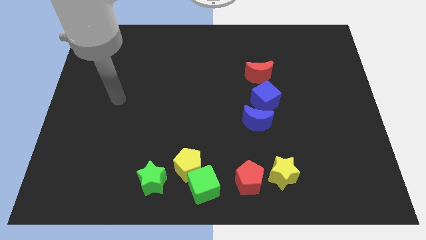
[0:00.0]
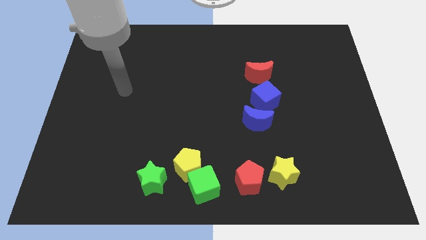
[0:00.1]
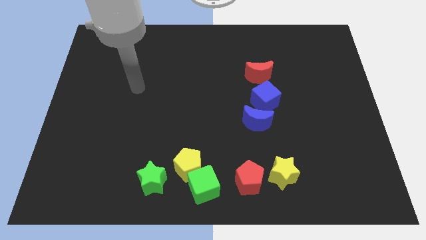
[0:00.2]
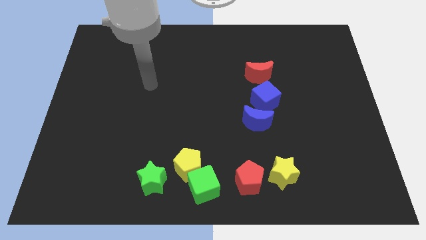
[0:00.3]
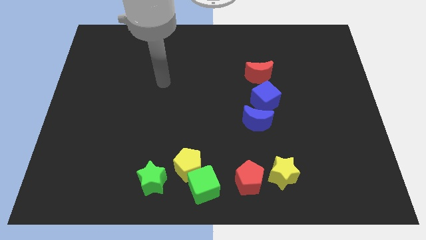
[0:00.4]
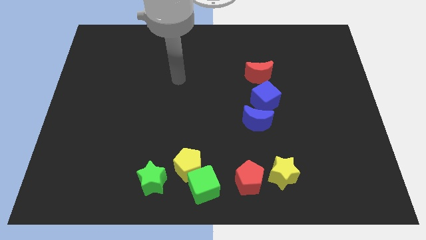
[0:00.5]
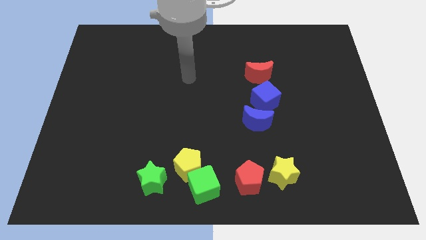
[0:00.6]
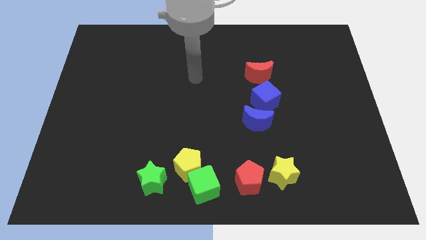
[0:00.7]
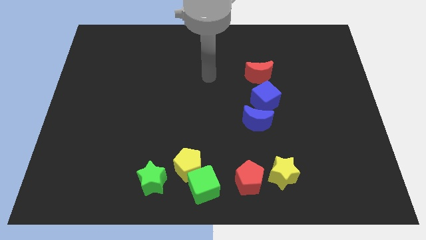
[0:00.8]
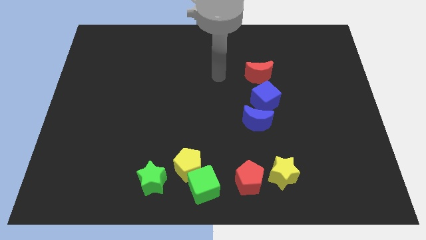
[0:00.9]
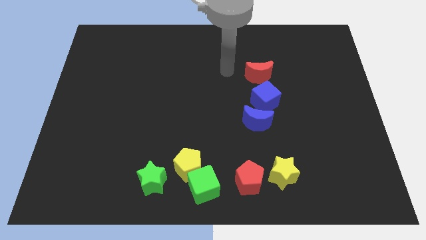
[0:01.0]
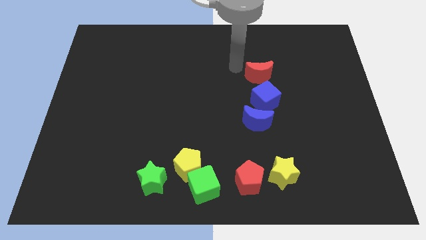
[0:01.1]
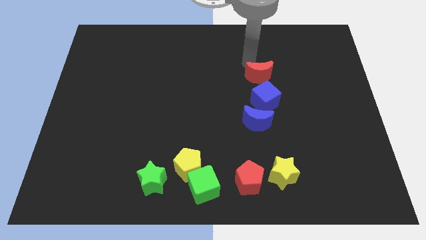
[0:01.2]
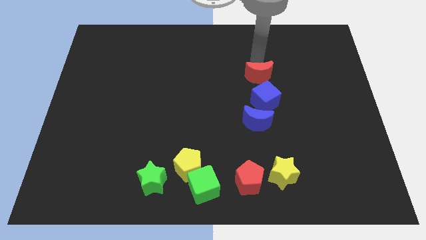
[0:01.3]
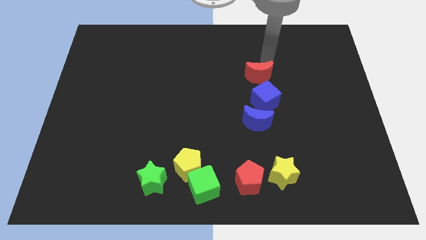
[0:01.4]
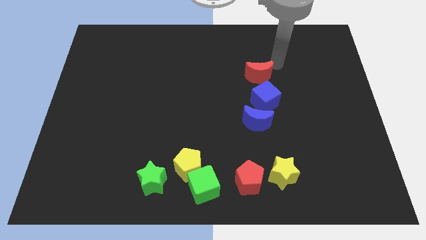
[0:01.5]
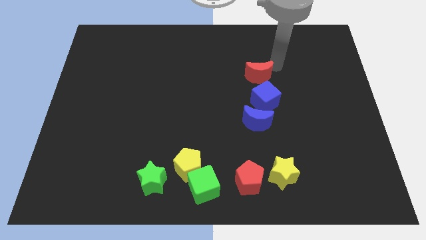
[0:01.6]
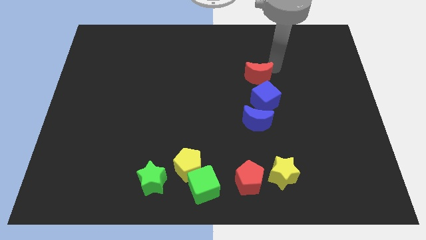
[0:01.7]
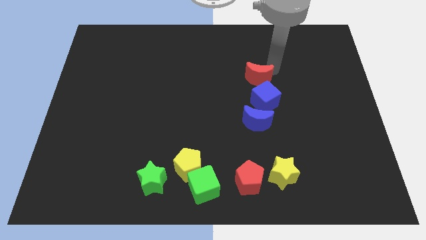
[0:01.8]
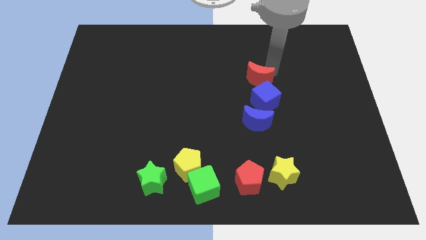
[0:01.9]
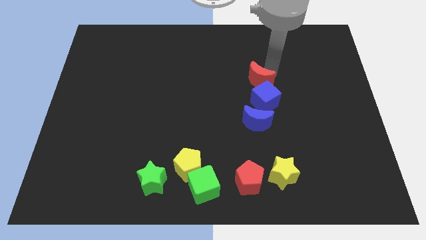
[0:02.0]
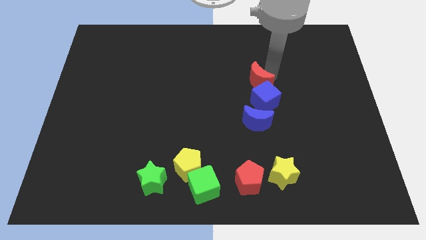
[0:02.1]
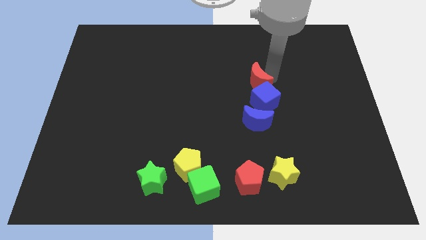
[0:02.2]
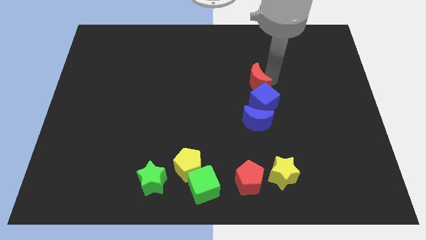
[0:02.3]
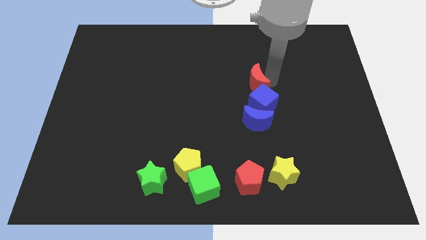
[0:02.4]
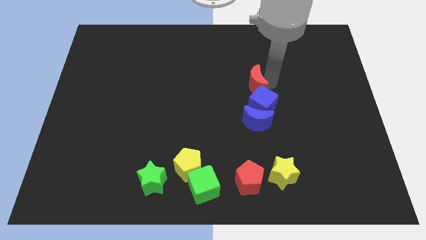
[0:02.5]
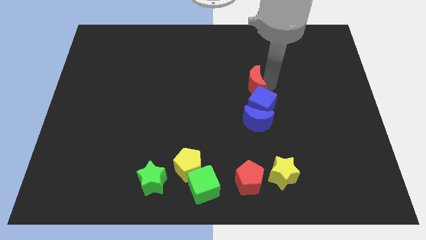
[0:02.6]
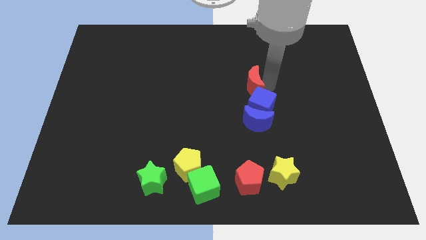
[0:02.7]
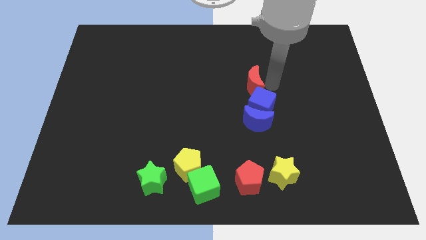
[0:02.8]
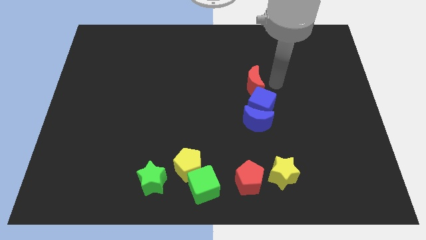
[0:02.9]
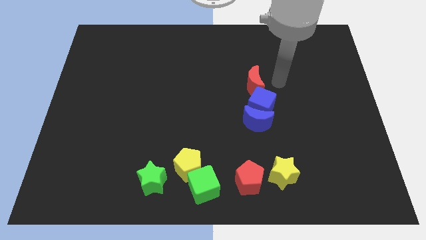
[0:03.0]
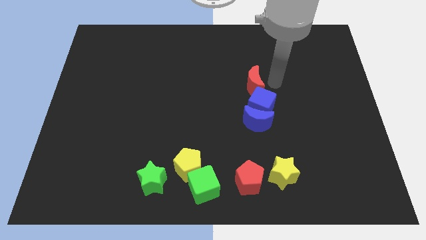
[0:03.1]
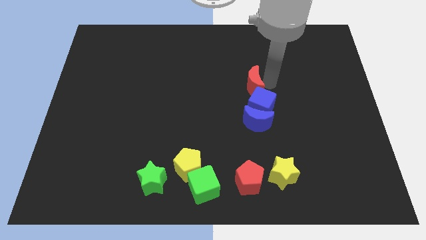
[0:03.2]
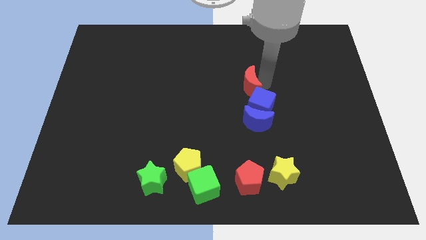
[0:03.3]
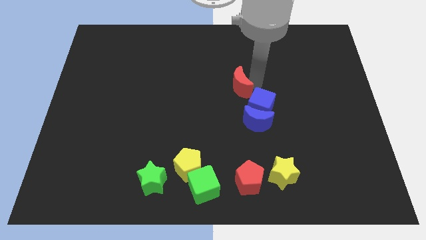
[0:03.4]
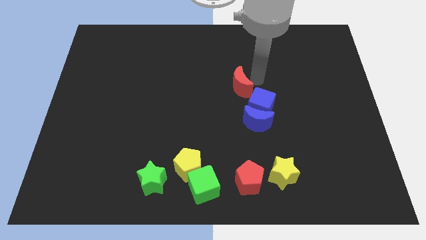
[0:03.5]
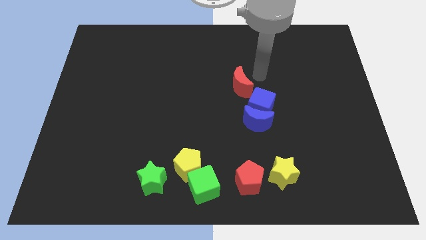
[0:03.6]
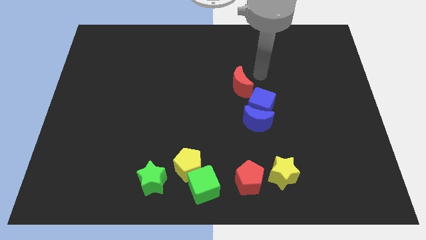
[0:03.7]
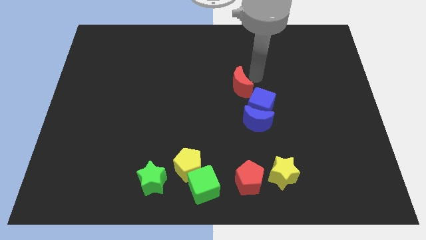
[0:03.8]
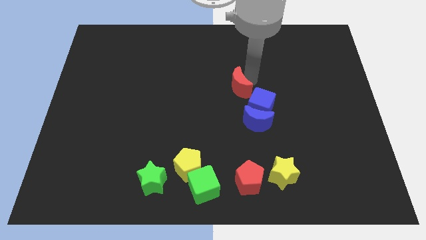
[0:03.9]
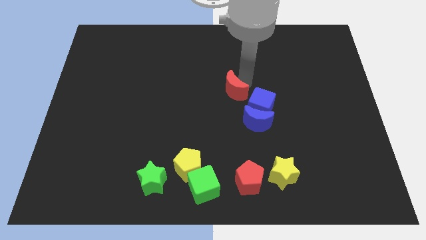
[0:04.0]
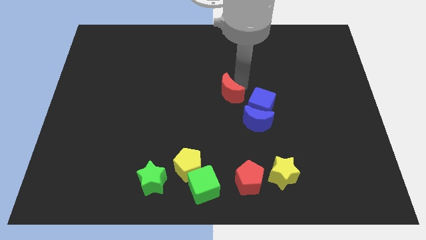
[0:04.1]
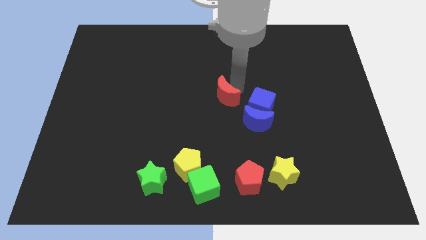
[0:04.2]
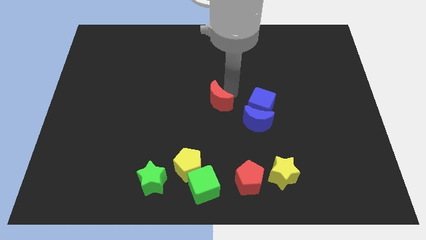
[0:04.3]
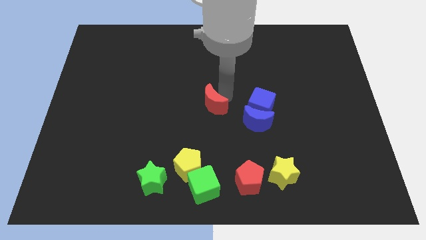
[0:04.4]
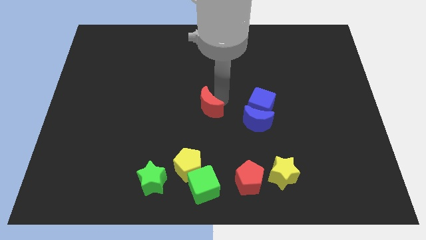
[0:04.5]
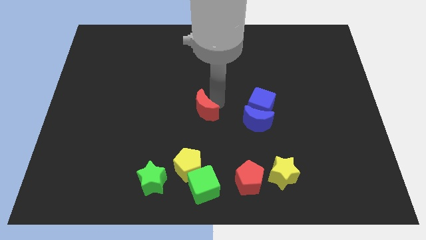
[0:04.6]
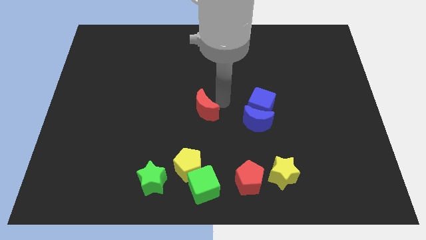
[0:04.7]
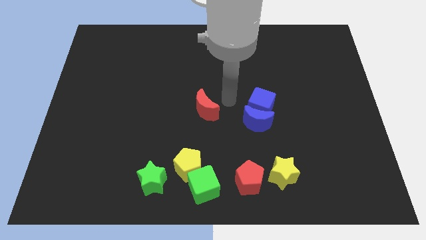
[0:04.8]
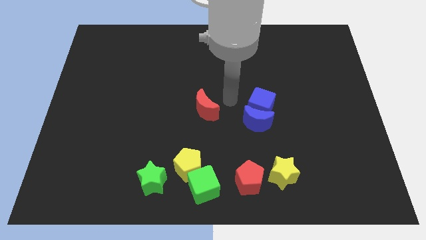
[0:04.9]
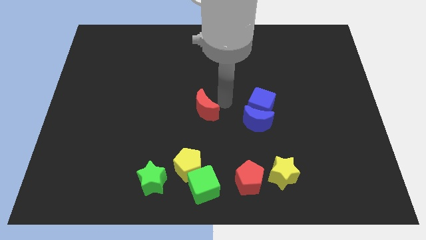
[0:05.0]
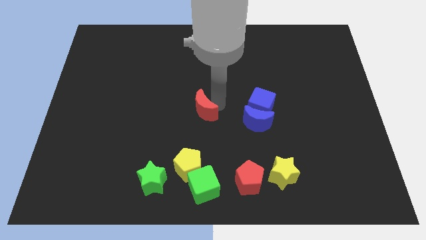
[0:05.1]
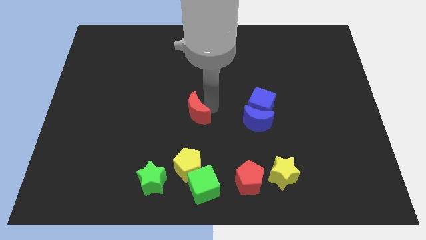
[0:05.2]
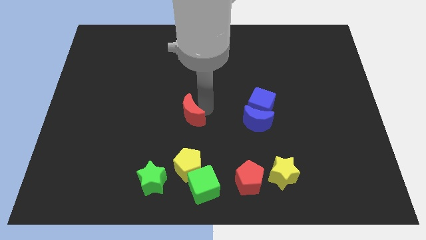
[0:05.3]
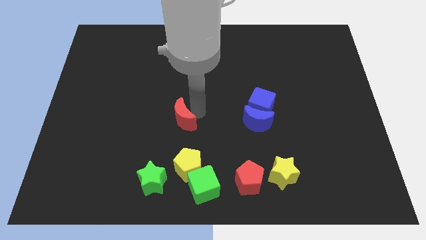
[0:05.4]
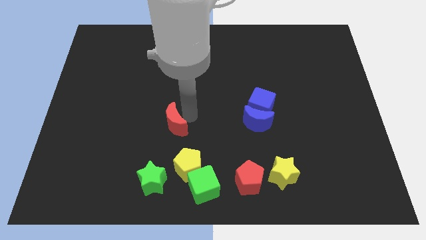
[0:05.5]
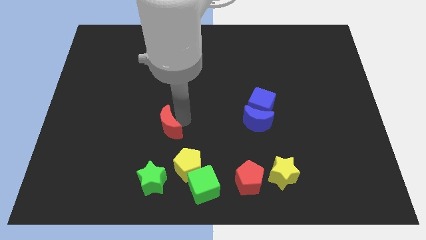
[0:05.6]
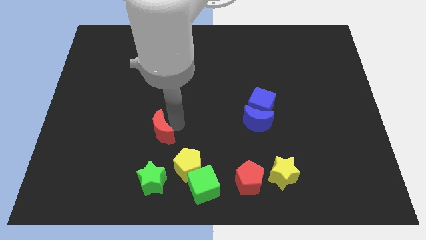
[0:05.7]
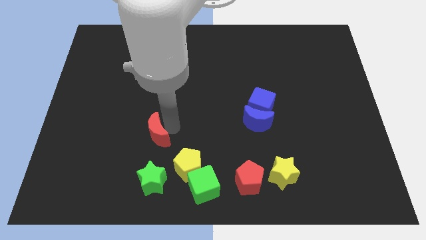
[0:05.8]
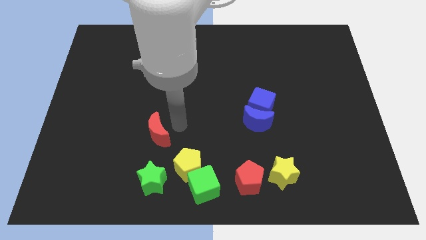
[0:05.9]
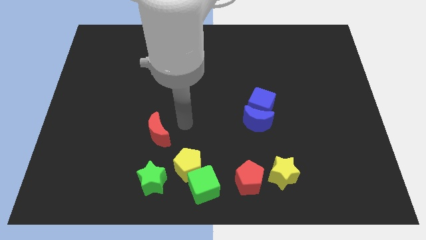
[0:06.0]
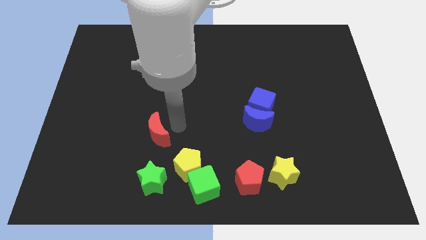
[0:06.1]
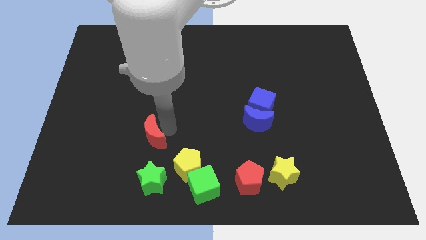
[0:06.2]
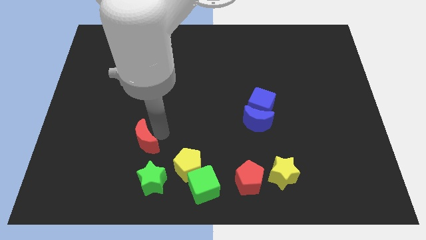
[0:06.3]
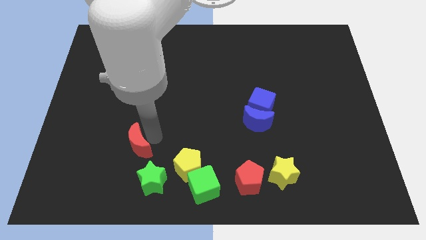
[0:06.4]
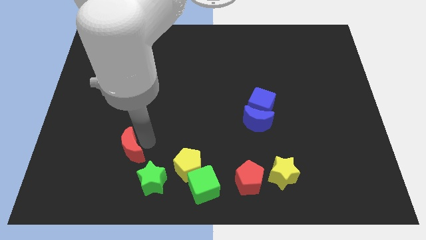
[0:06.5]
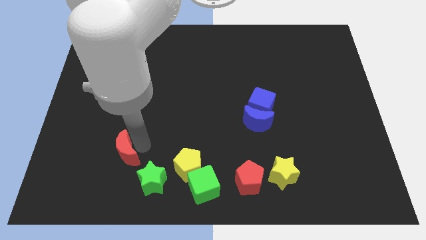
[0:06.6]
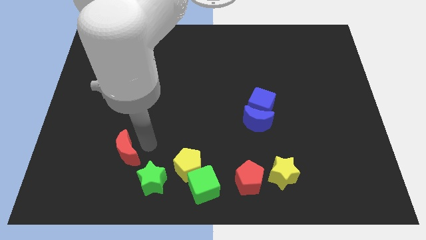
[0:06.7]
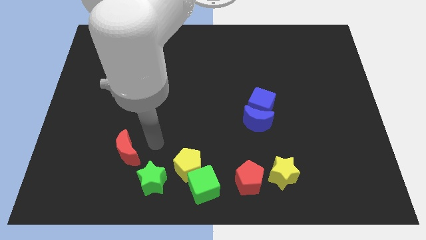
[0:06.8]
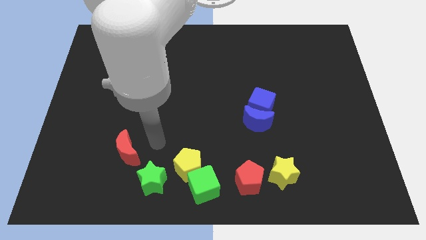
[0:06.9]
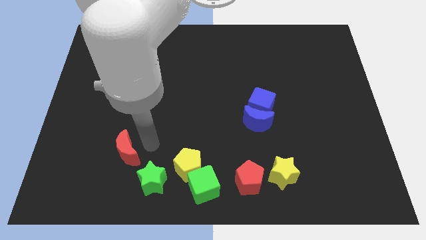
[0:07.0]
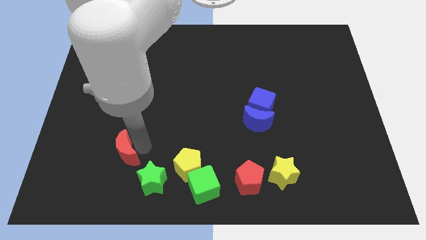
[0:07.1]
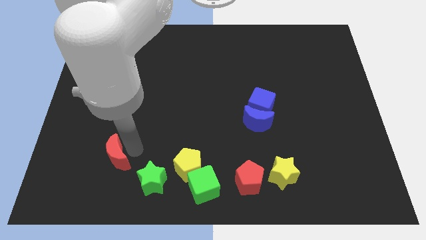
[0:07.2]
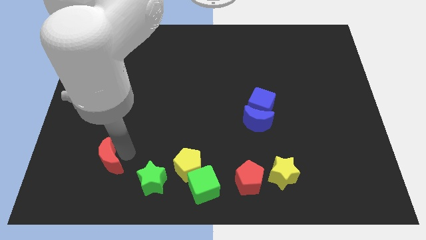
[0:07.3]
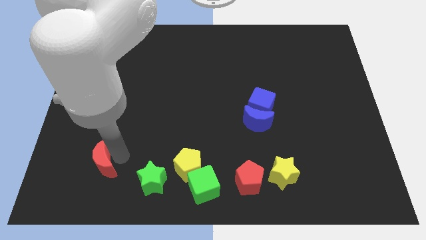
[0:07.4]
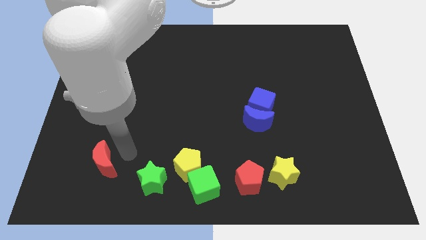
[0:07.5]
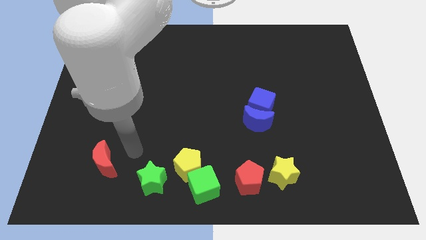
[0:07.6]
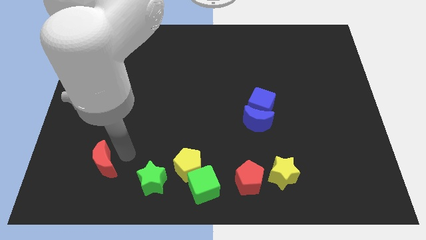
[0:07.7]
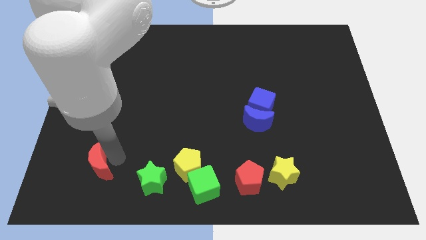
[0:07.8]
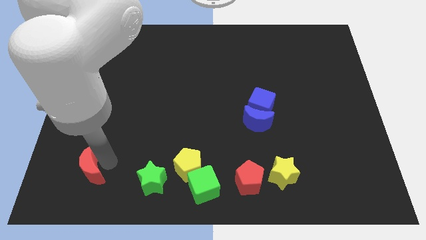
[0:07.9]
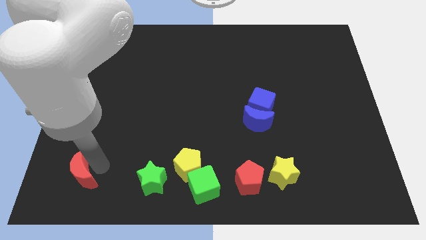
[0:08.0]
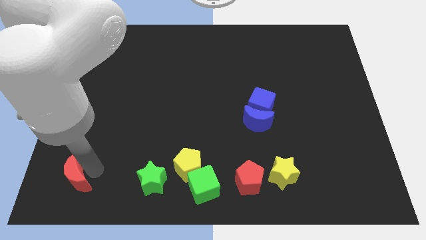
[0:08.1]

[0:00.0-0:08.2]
put the red moon to the bottom left of the board
